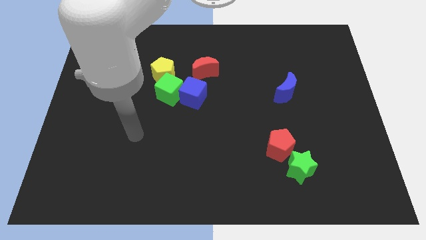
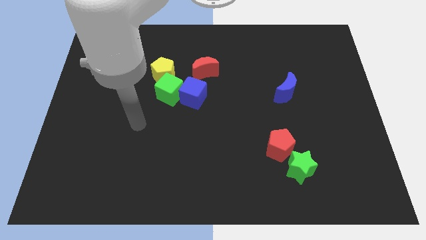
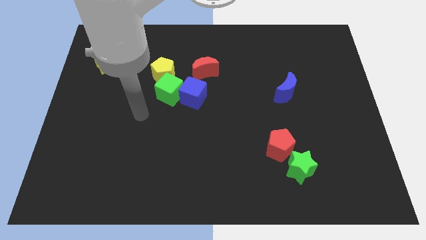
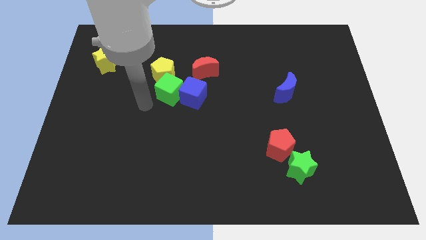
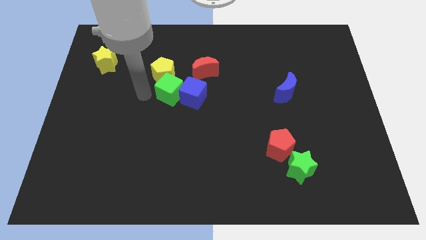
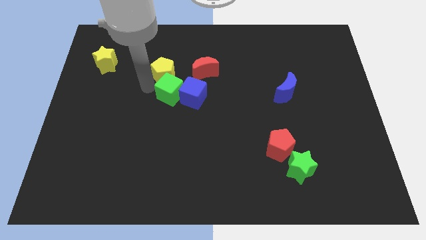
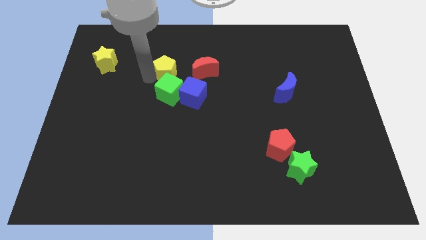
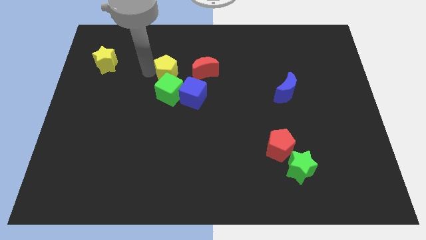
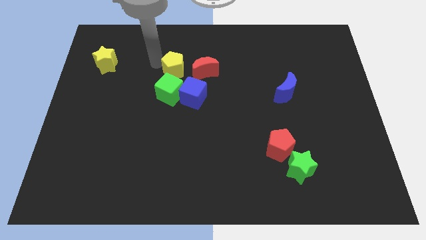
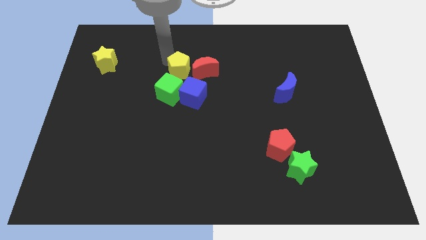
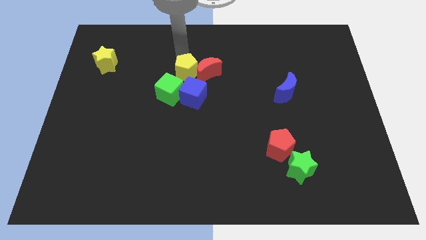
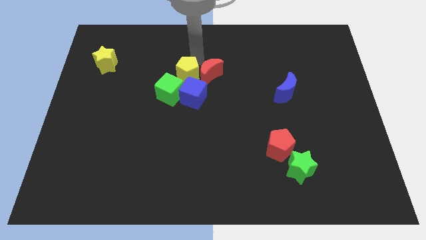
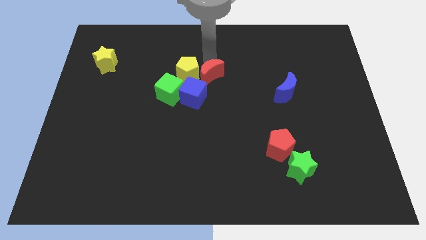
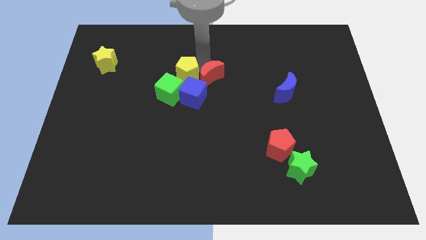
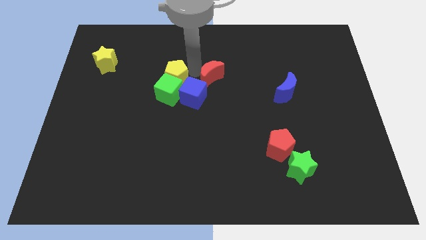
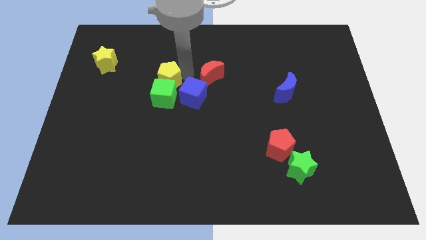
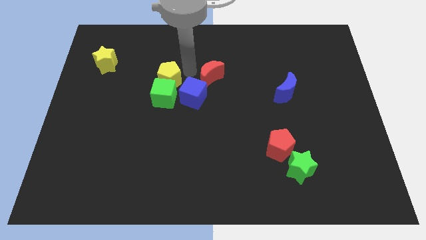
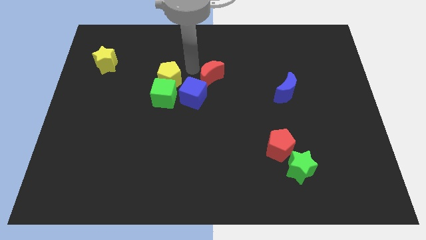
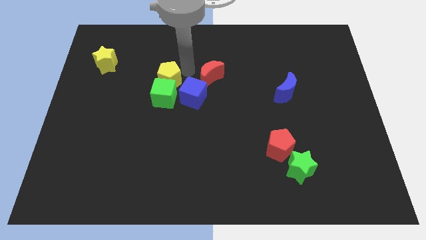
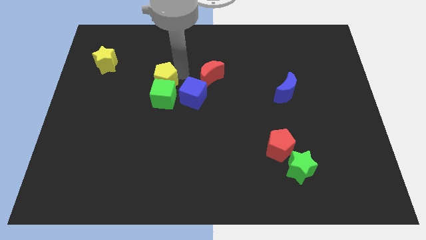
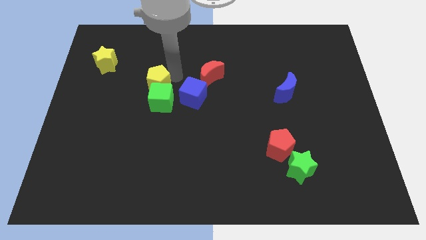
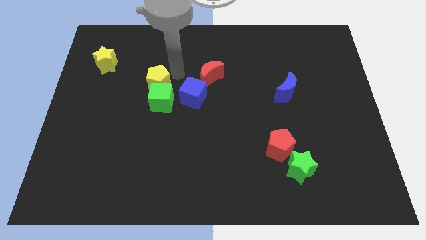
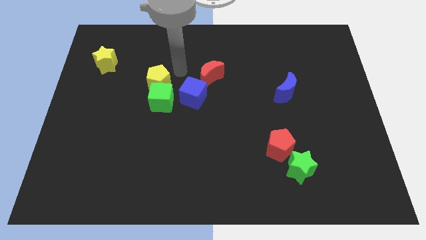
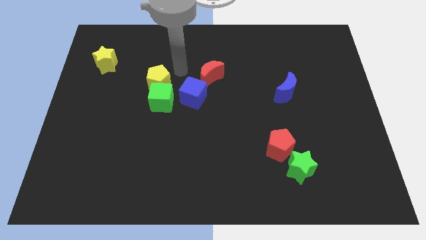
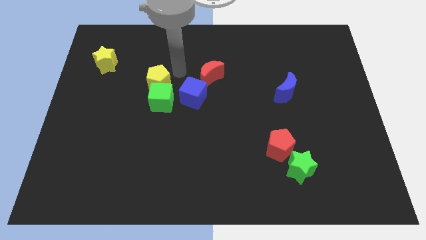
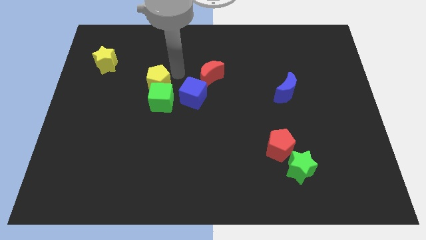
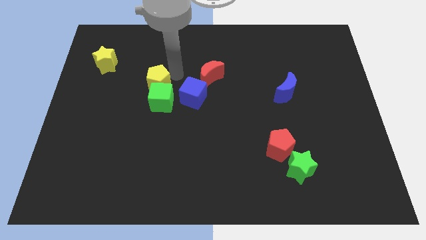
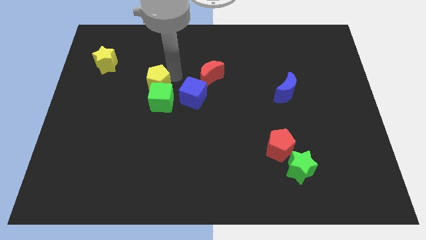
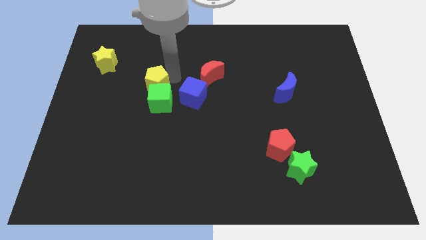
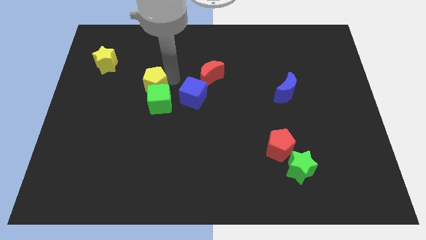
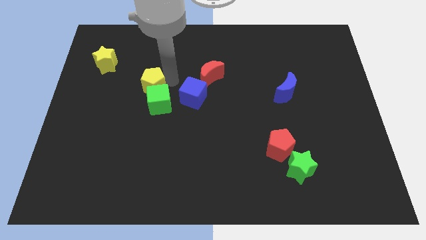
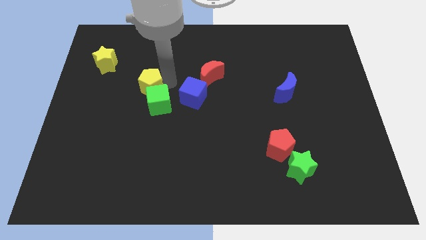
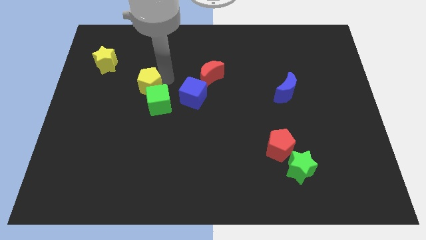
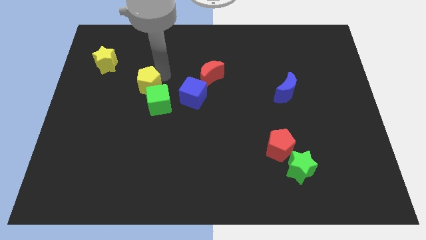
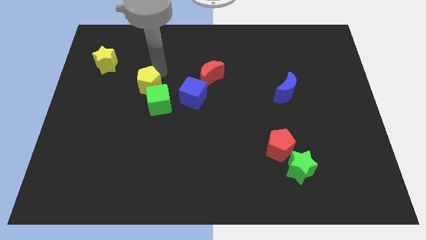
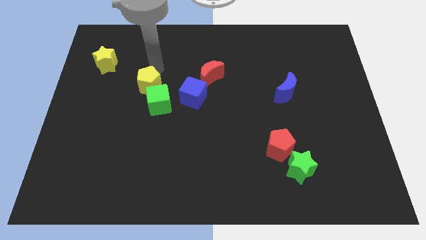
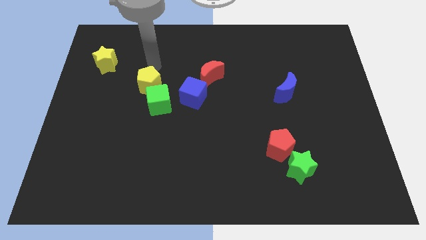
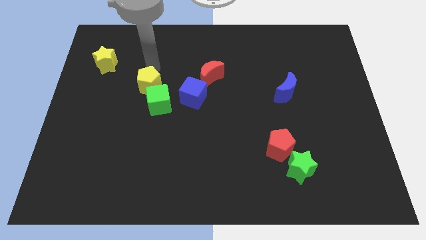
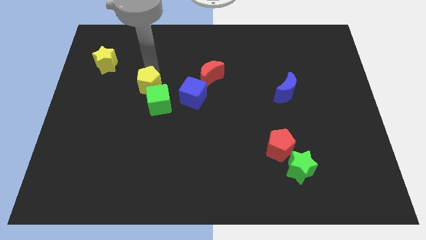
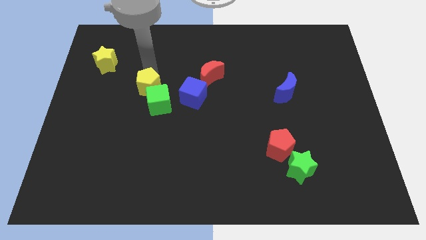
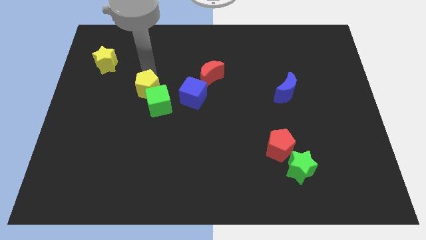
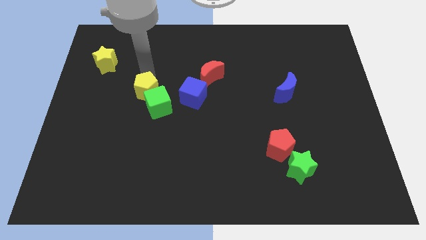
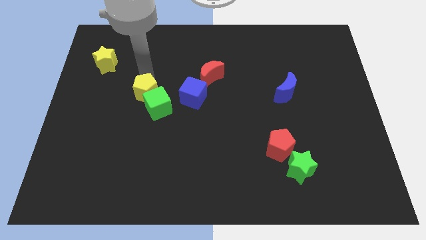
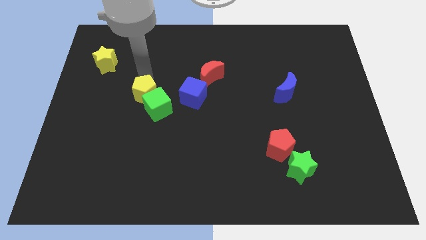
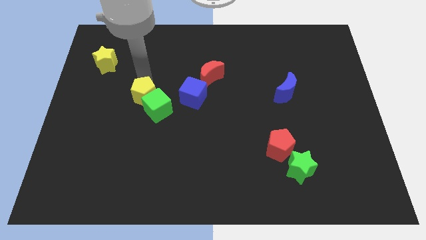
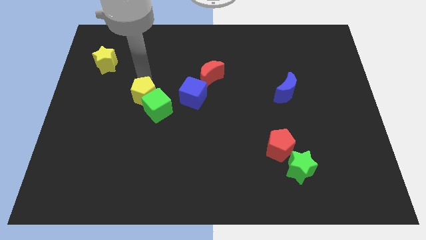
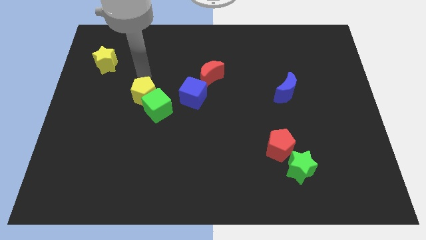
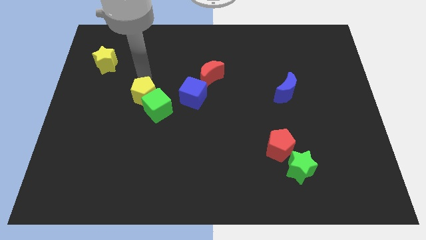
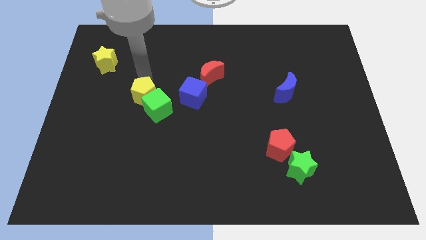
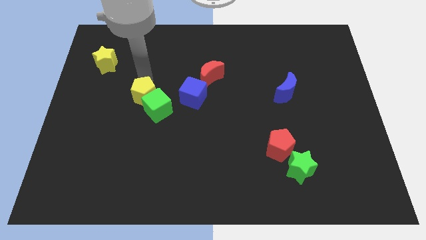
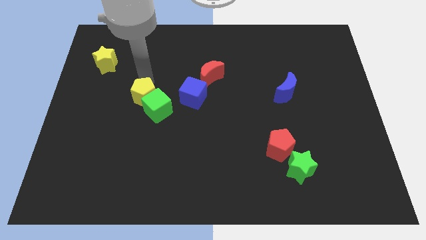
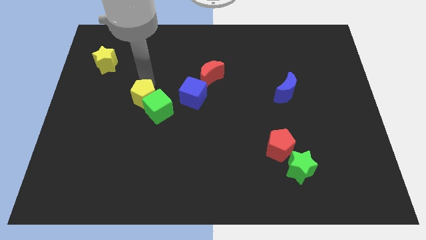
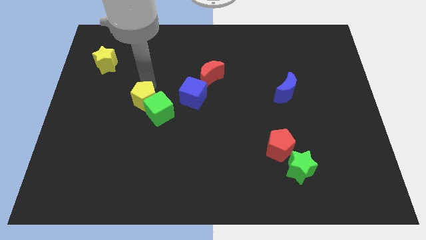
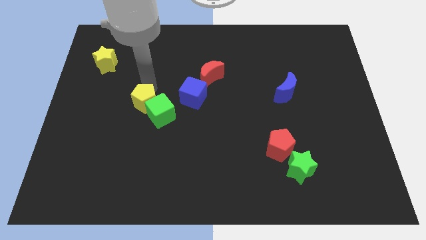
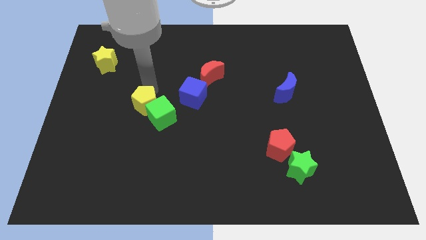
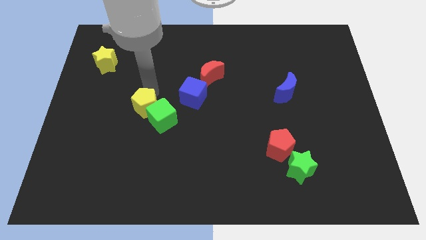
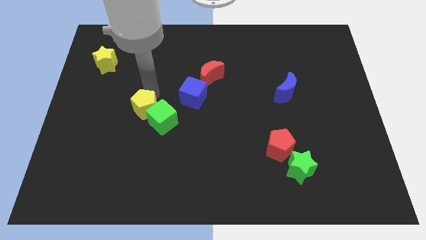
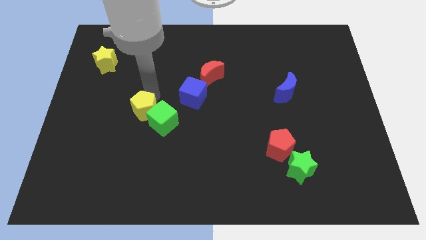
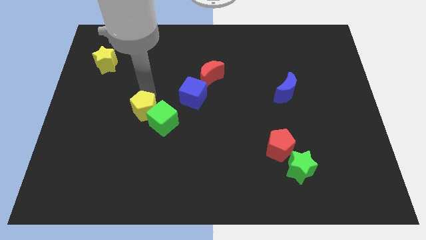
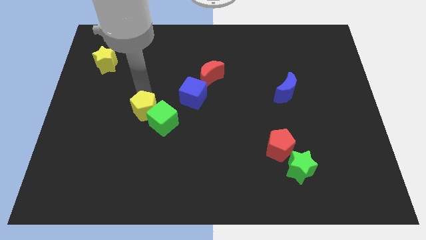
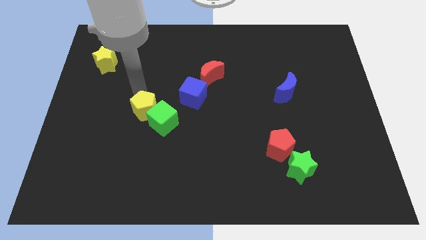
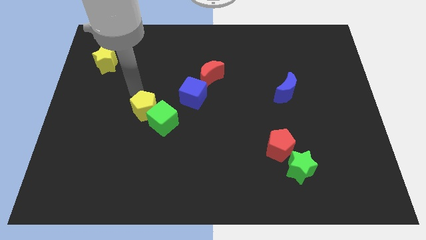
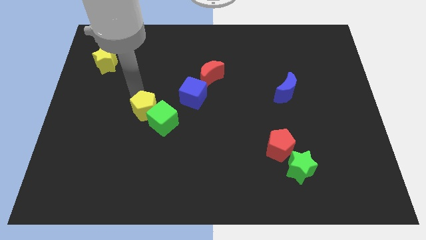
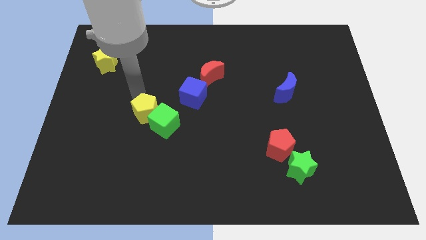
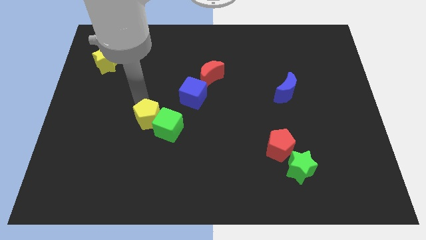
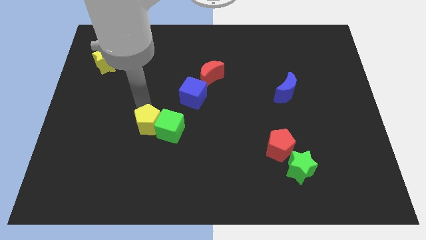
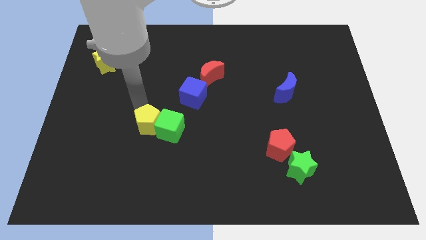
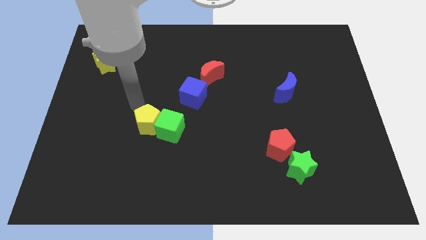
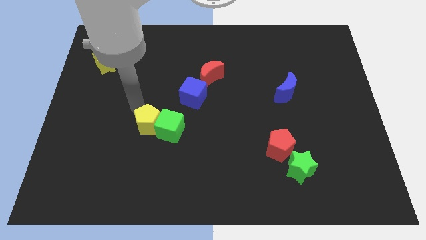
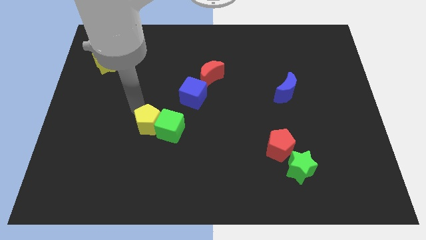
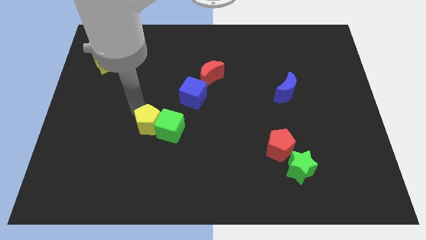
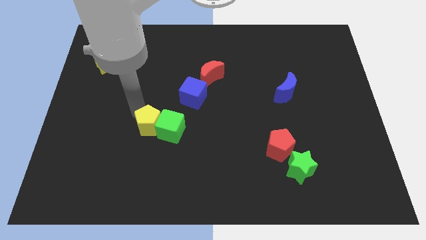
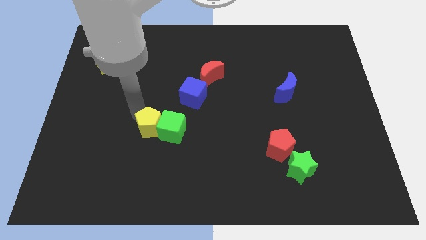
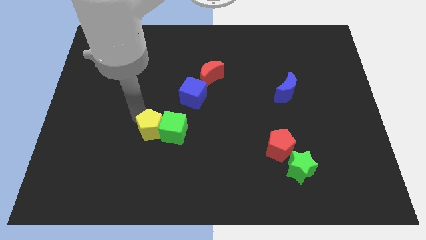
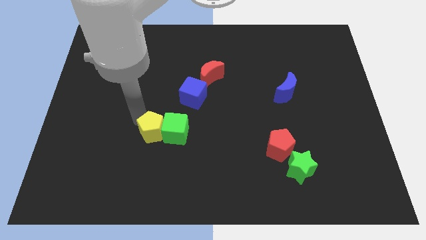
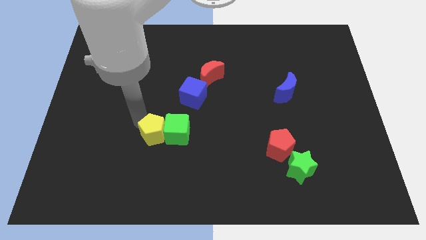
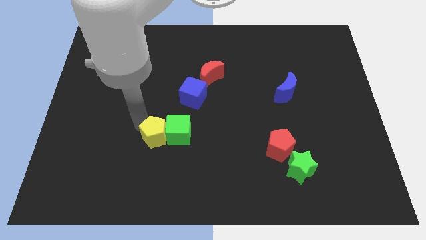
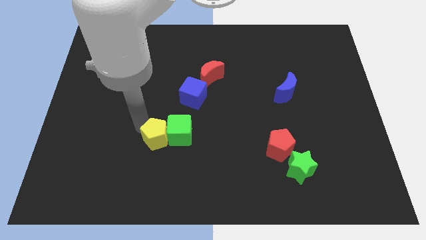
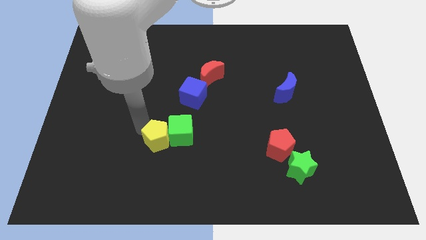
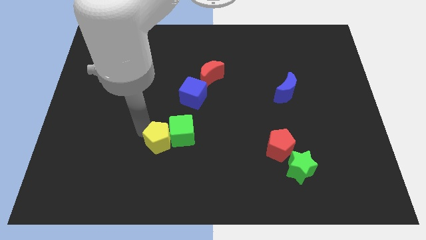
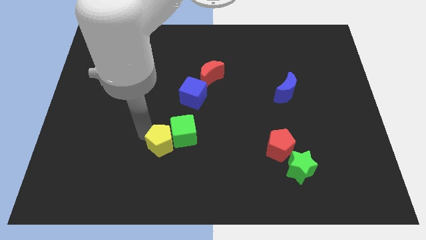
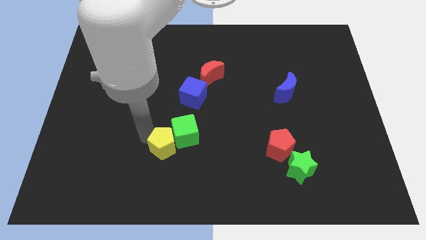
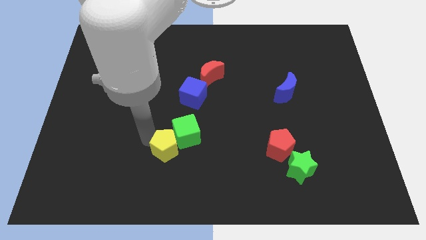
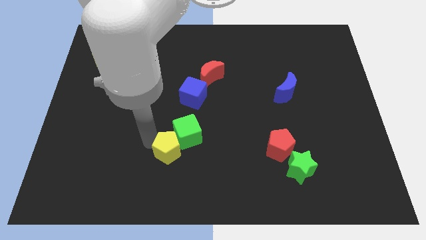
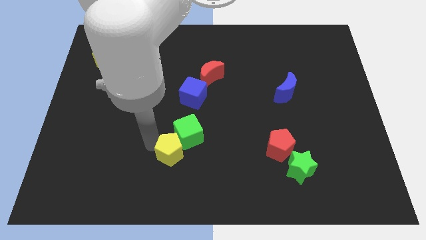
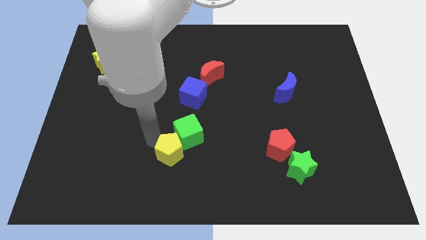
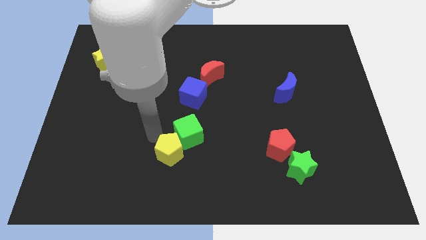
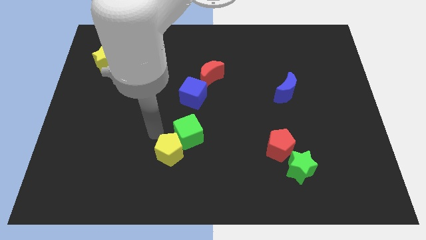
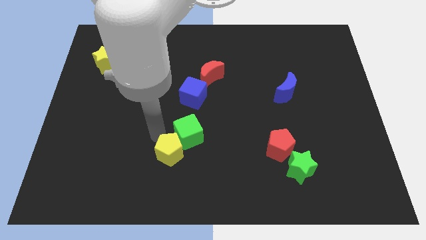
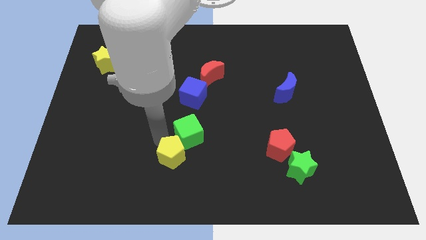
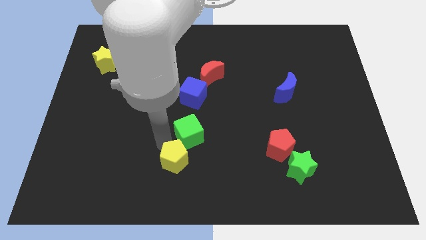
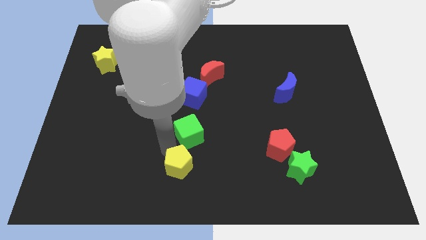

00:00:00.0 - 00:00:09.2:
put the yellow pentagon to the bottom
